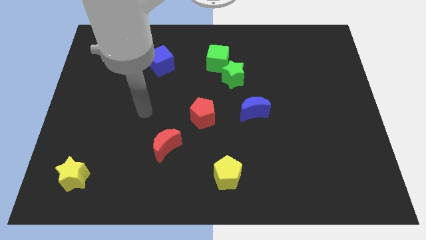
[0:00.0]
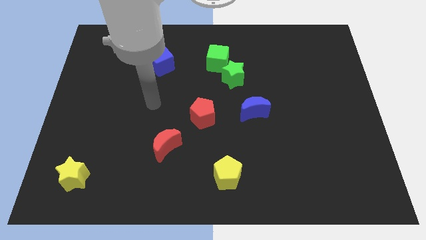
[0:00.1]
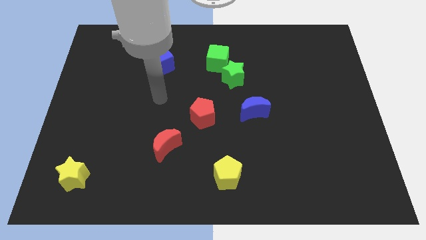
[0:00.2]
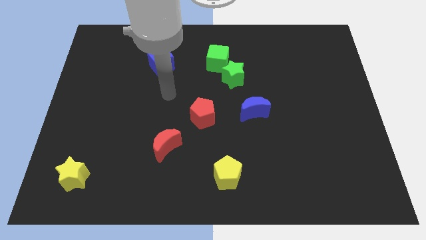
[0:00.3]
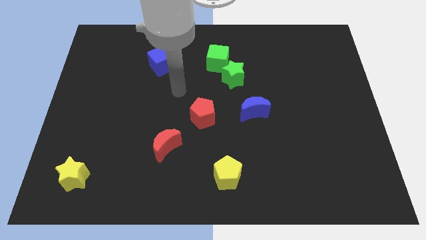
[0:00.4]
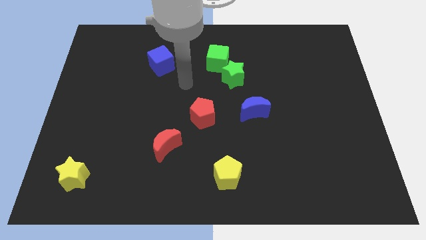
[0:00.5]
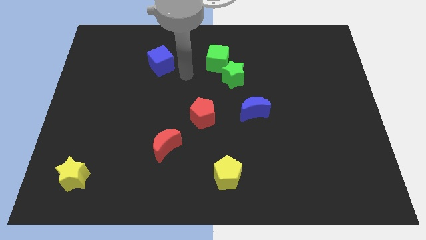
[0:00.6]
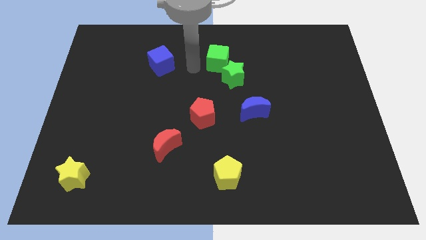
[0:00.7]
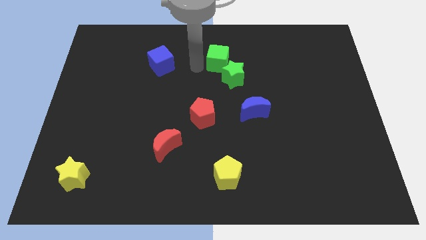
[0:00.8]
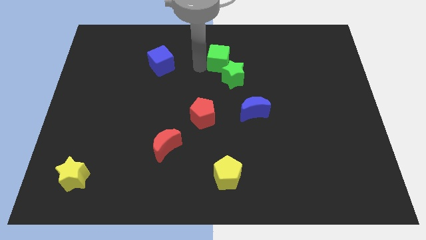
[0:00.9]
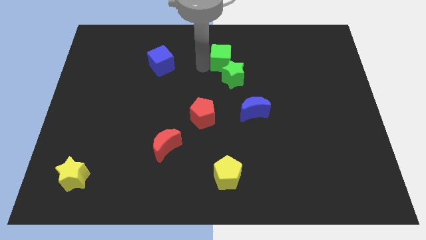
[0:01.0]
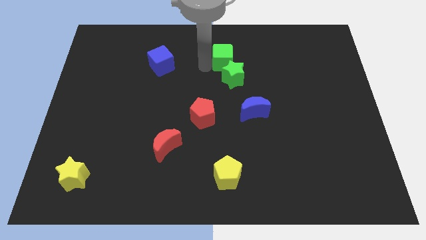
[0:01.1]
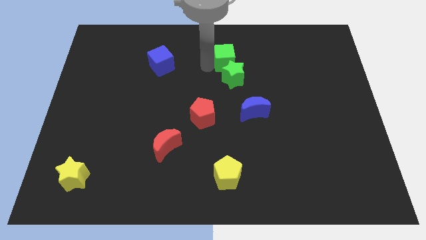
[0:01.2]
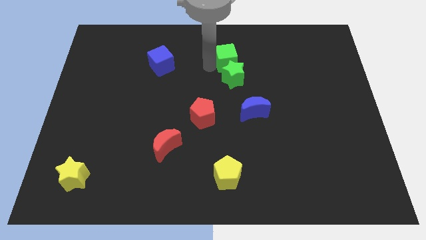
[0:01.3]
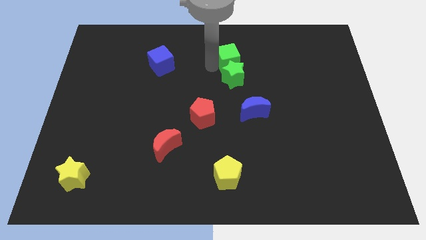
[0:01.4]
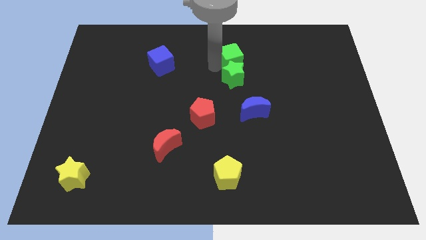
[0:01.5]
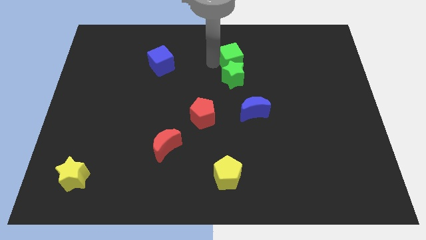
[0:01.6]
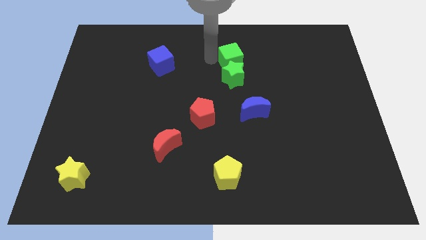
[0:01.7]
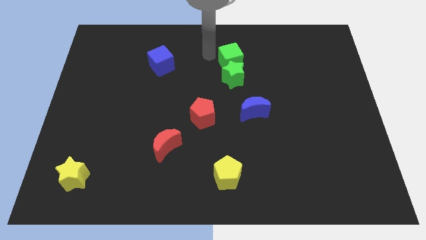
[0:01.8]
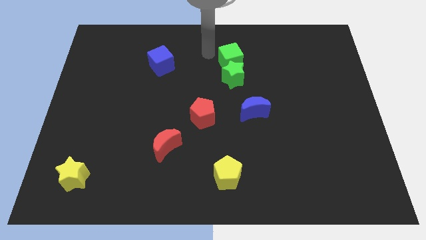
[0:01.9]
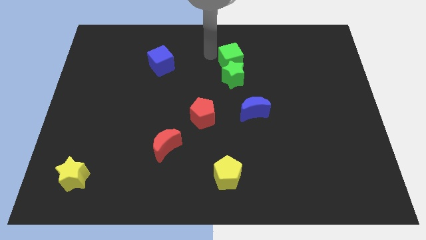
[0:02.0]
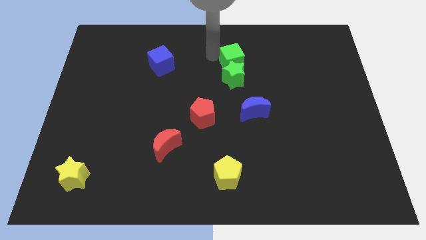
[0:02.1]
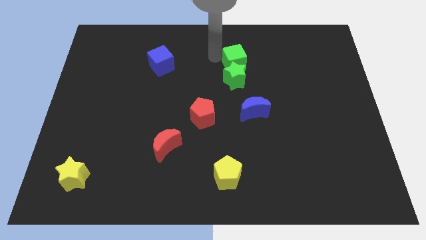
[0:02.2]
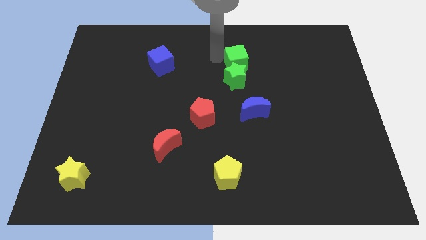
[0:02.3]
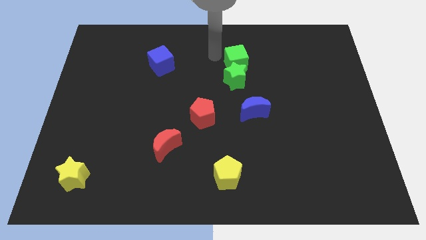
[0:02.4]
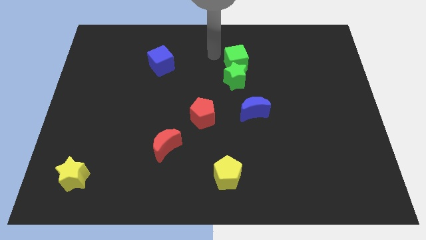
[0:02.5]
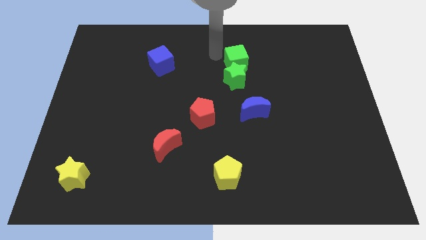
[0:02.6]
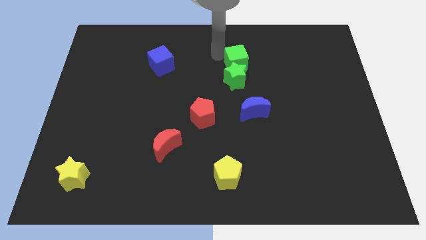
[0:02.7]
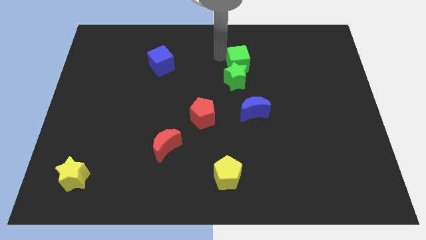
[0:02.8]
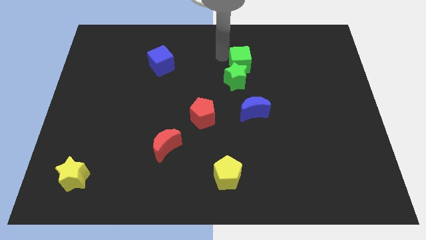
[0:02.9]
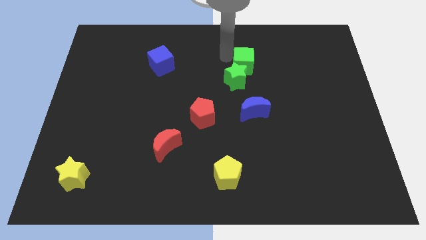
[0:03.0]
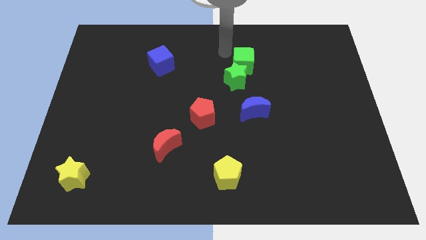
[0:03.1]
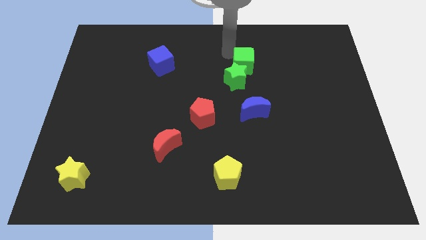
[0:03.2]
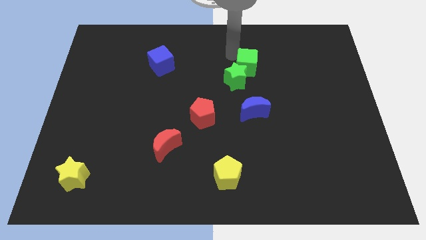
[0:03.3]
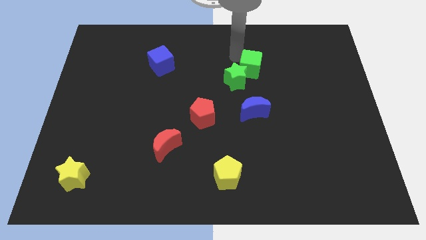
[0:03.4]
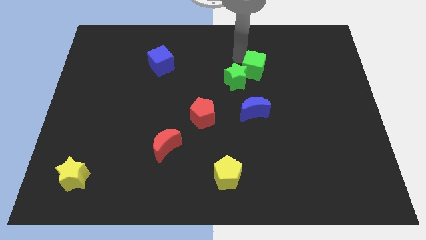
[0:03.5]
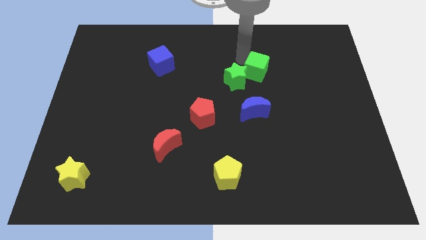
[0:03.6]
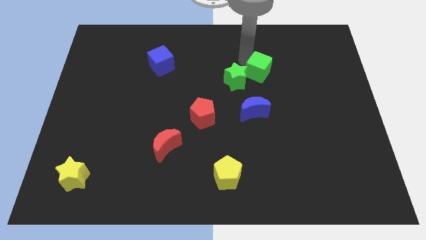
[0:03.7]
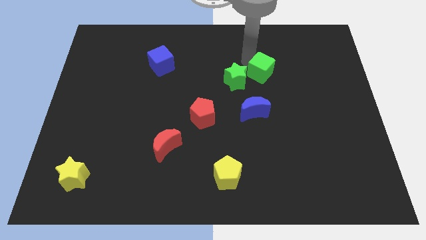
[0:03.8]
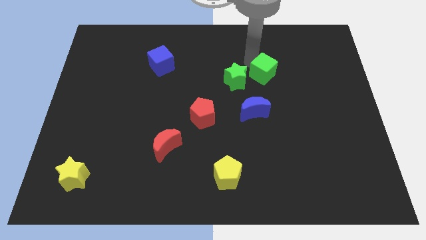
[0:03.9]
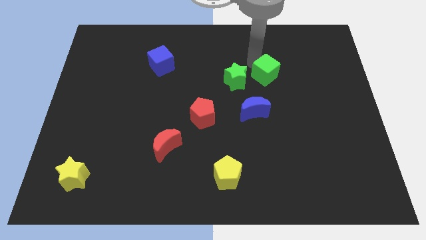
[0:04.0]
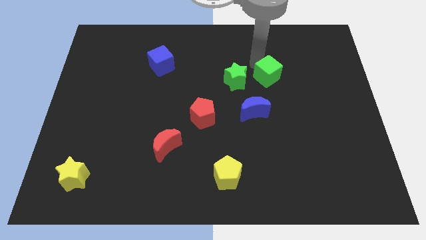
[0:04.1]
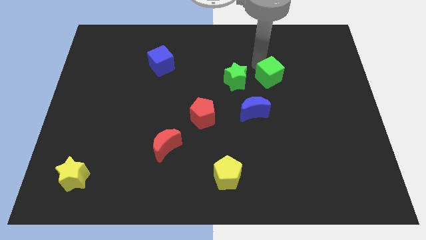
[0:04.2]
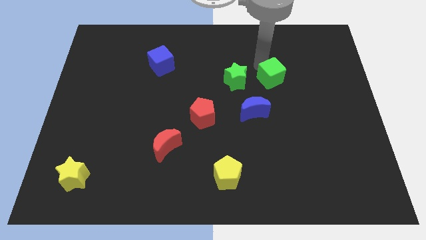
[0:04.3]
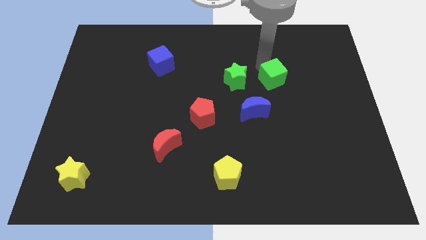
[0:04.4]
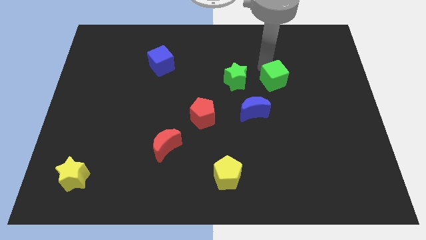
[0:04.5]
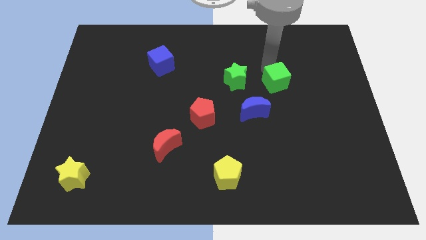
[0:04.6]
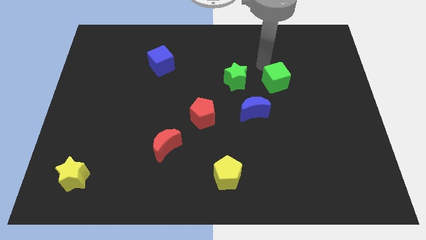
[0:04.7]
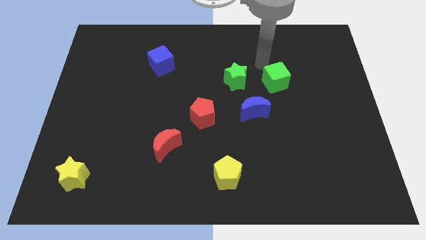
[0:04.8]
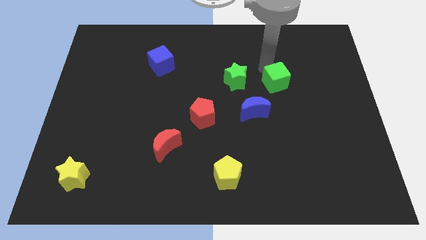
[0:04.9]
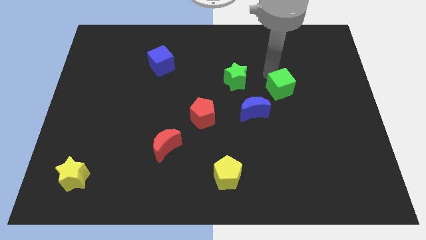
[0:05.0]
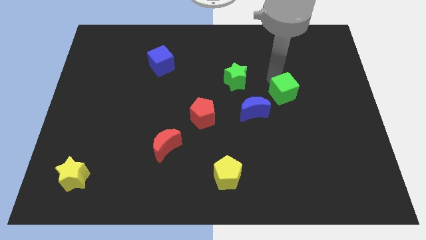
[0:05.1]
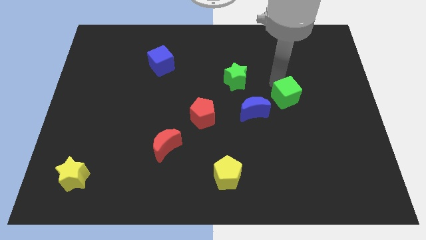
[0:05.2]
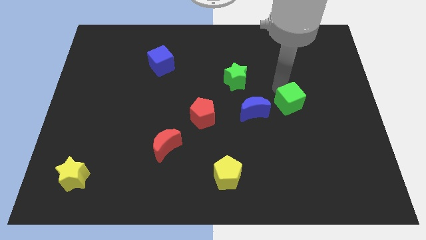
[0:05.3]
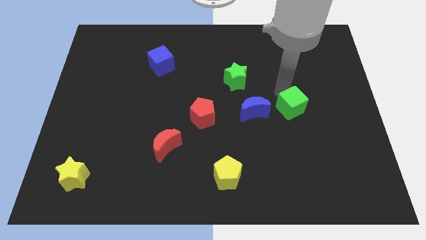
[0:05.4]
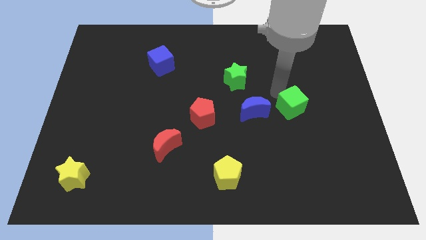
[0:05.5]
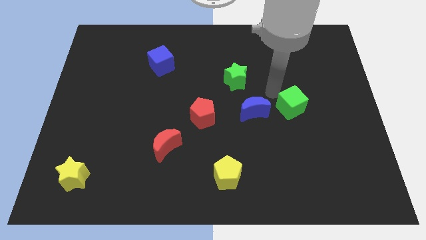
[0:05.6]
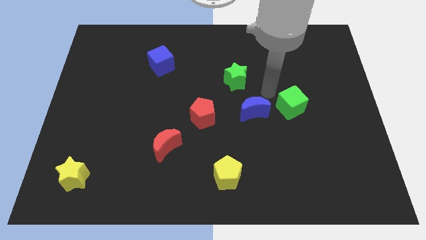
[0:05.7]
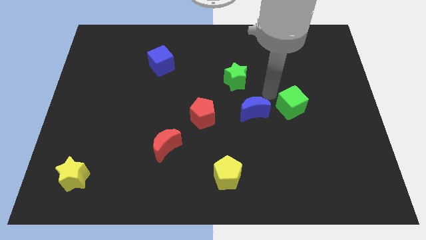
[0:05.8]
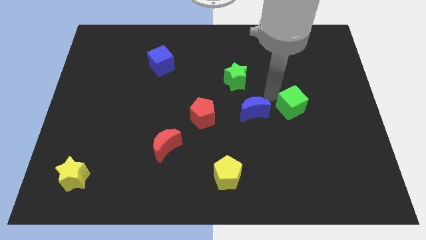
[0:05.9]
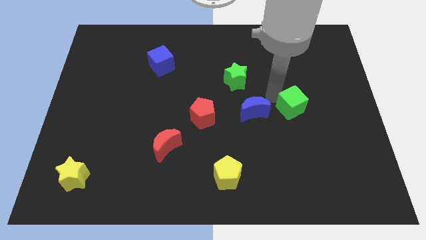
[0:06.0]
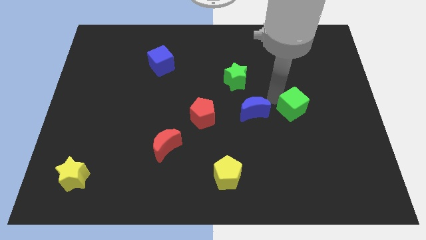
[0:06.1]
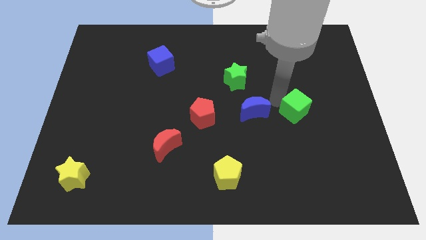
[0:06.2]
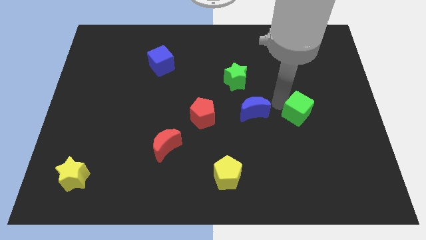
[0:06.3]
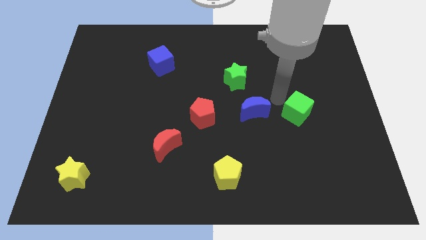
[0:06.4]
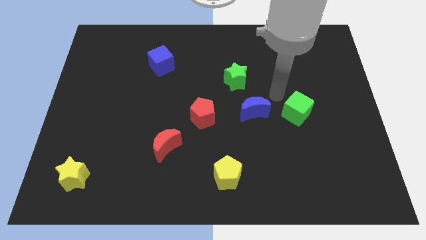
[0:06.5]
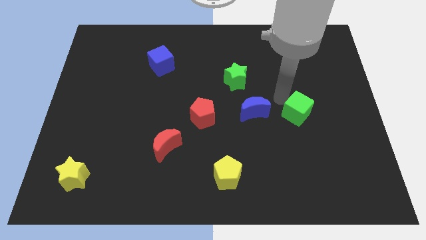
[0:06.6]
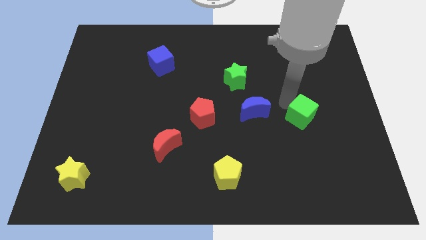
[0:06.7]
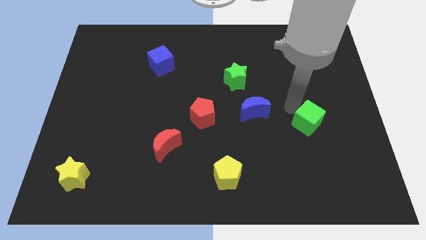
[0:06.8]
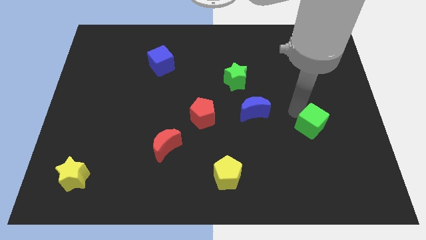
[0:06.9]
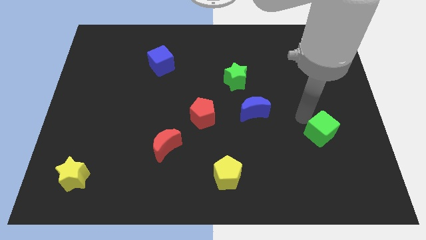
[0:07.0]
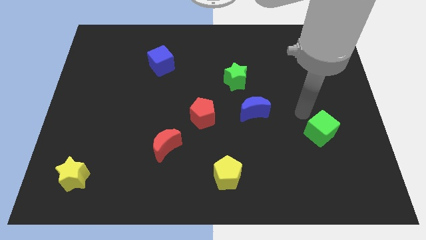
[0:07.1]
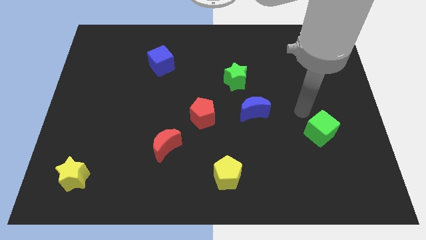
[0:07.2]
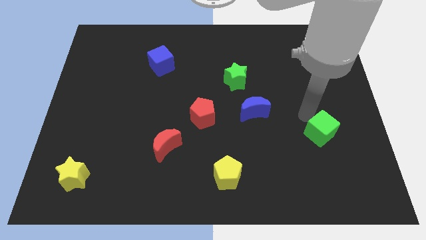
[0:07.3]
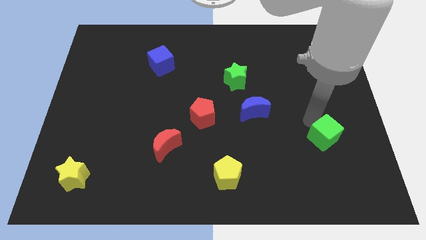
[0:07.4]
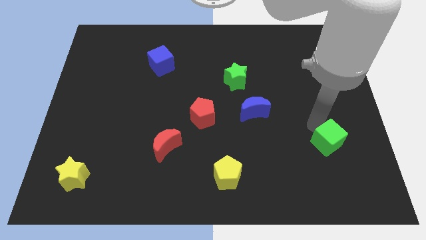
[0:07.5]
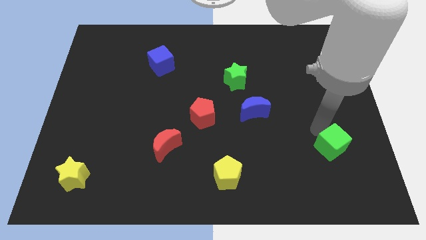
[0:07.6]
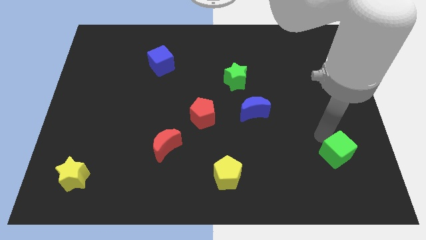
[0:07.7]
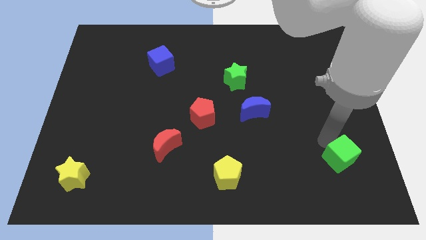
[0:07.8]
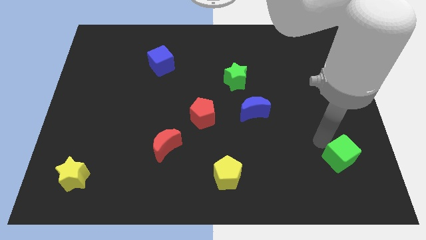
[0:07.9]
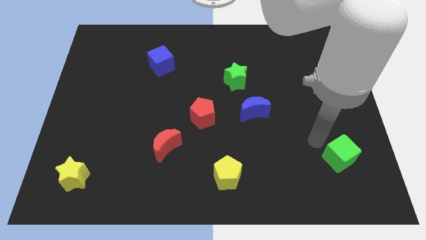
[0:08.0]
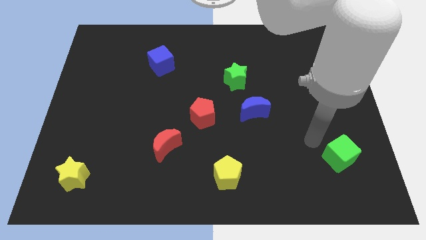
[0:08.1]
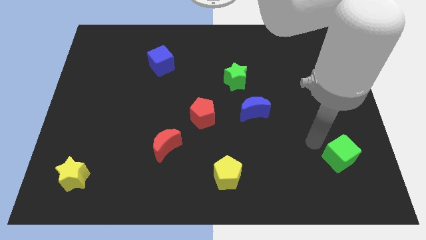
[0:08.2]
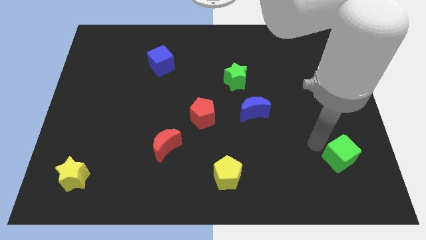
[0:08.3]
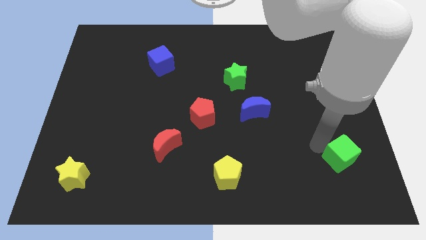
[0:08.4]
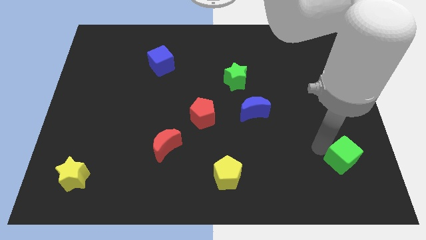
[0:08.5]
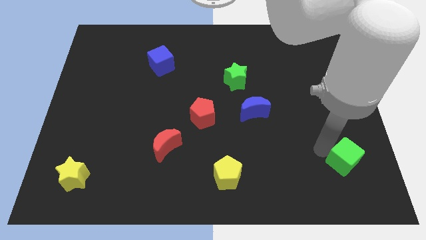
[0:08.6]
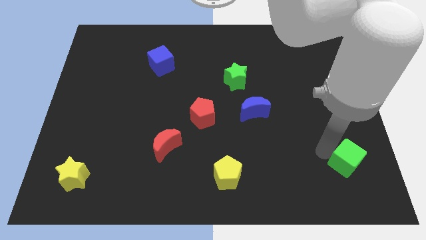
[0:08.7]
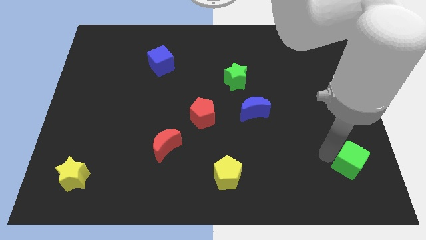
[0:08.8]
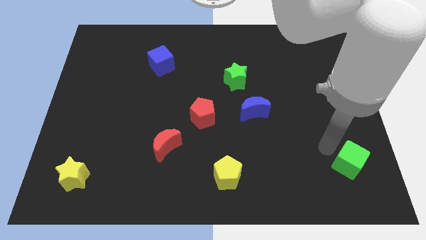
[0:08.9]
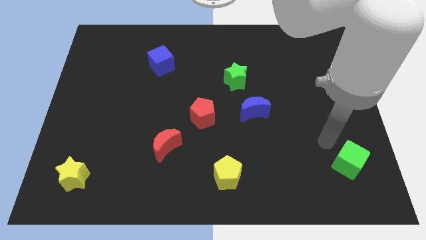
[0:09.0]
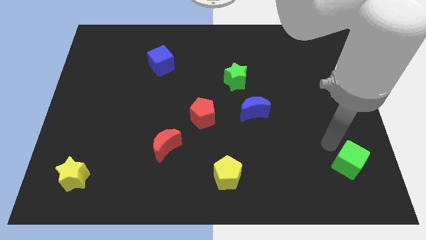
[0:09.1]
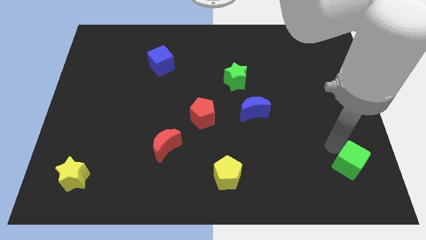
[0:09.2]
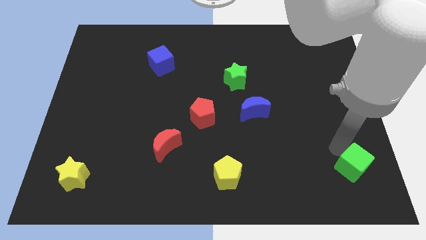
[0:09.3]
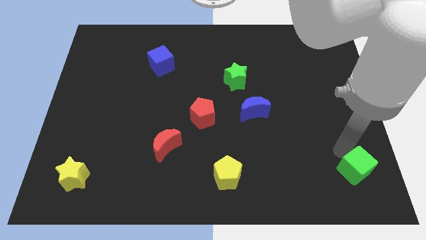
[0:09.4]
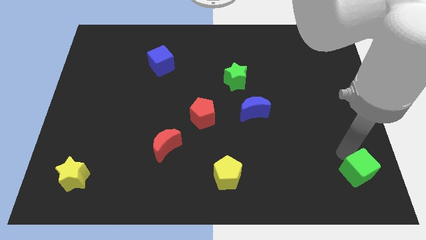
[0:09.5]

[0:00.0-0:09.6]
put the green cube to the bottom right
